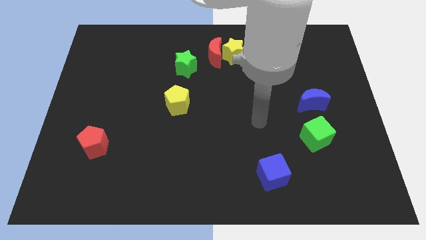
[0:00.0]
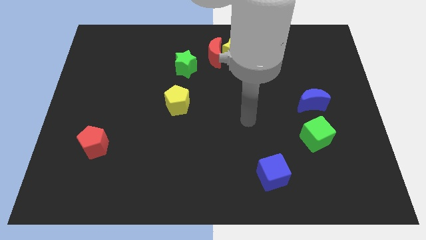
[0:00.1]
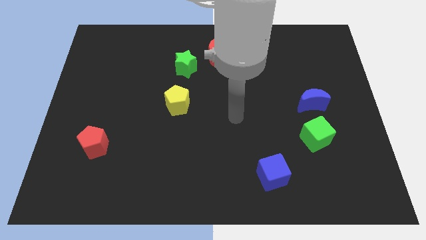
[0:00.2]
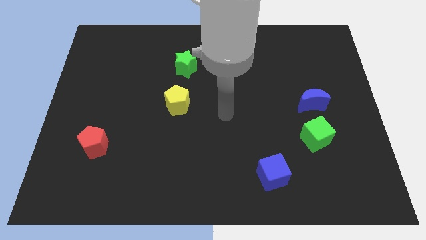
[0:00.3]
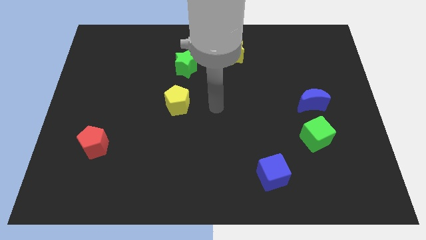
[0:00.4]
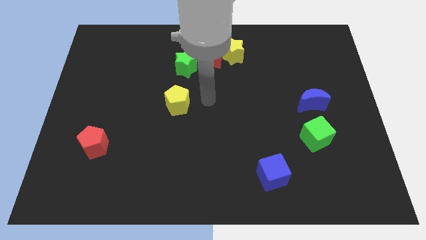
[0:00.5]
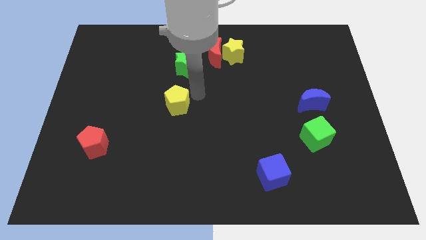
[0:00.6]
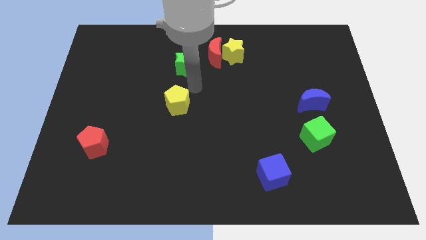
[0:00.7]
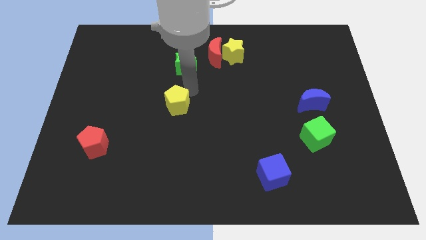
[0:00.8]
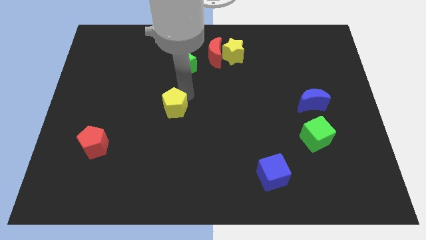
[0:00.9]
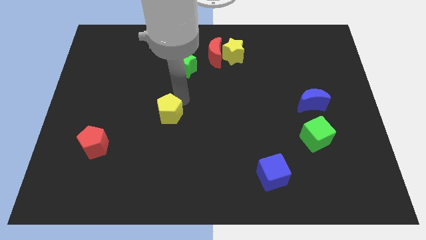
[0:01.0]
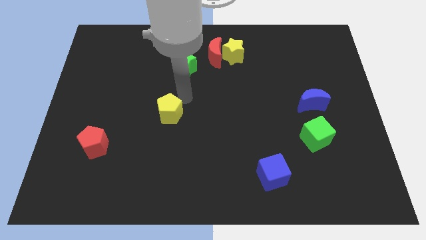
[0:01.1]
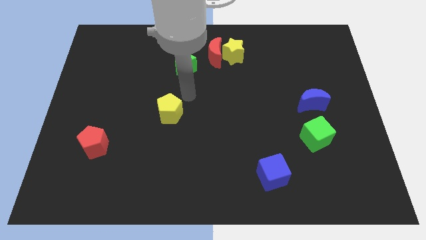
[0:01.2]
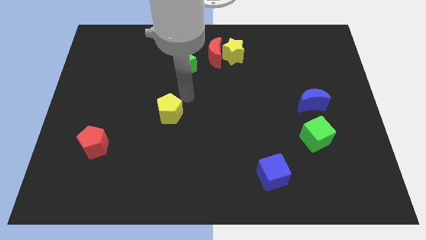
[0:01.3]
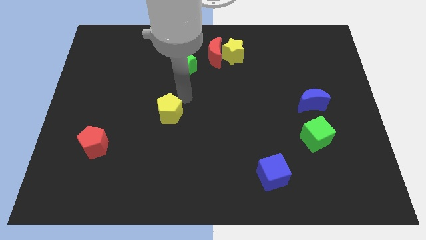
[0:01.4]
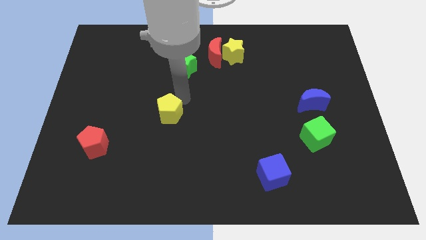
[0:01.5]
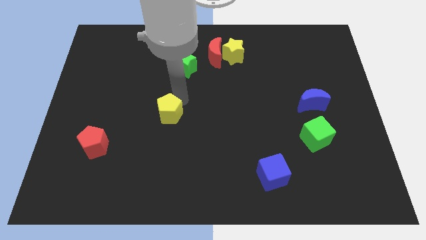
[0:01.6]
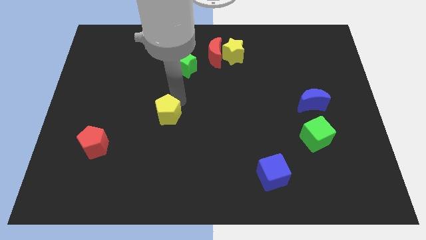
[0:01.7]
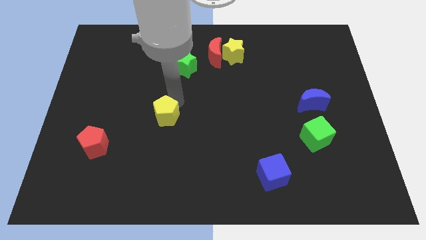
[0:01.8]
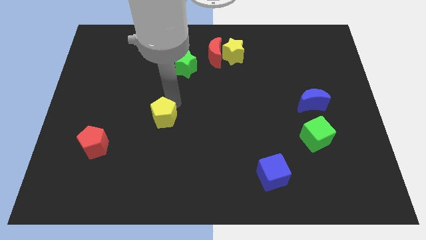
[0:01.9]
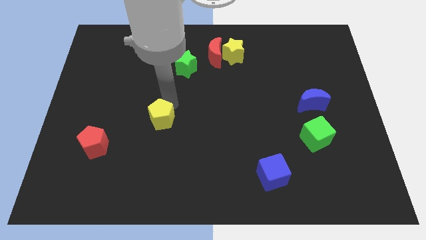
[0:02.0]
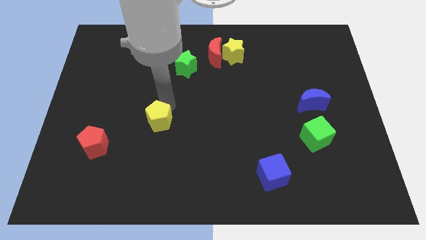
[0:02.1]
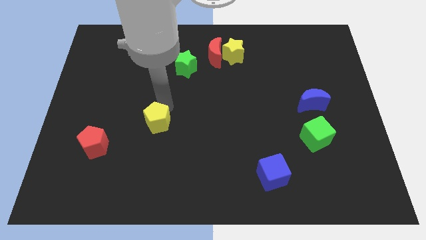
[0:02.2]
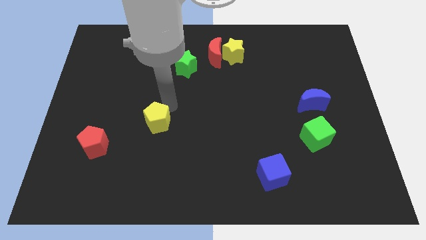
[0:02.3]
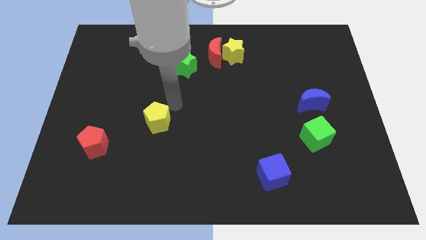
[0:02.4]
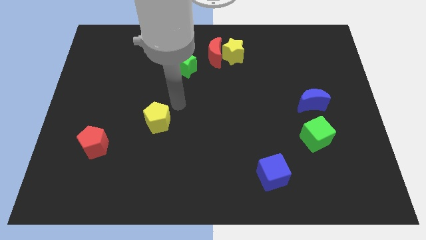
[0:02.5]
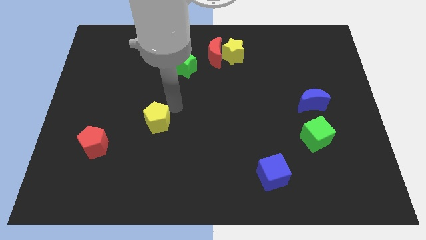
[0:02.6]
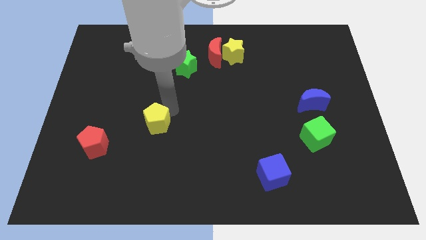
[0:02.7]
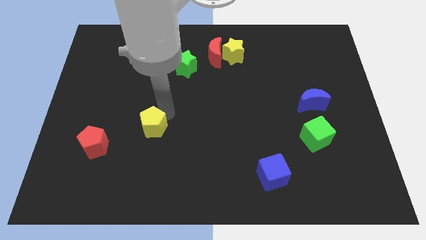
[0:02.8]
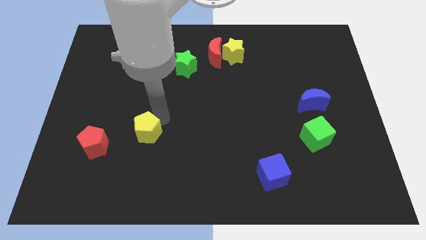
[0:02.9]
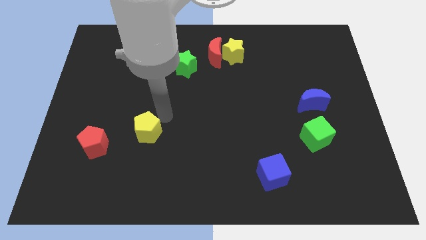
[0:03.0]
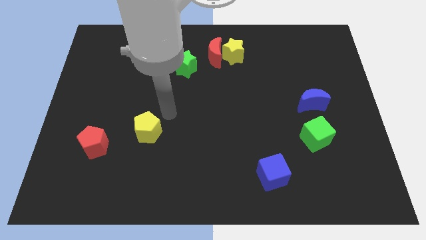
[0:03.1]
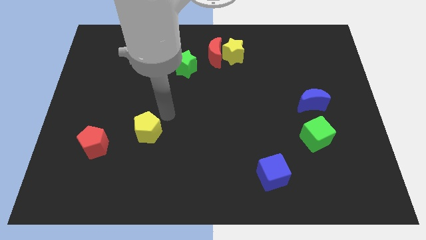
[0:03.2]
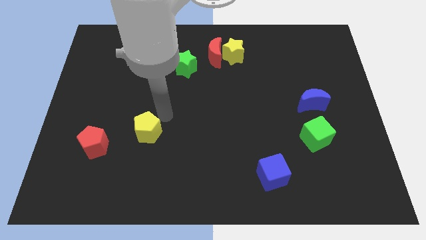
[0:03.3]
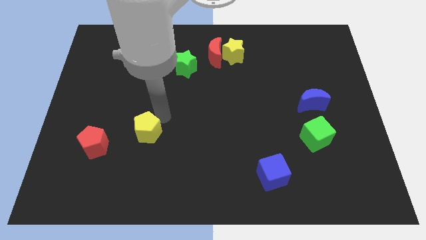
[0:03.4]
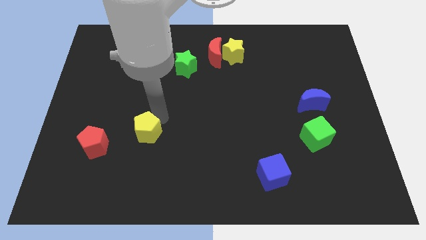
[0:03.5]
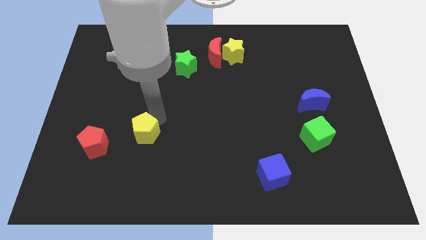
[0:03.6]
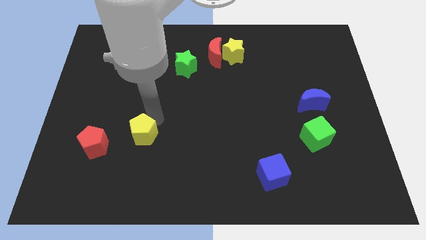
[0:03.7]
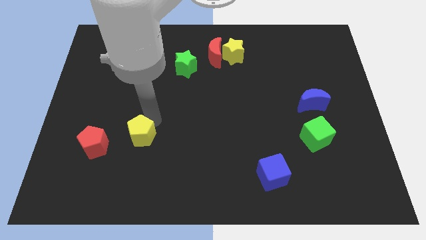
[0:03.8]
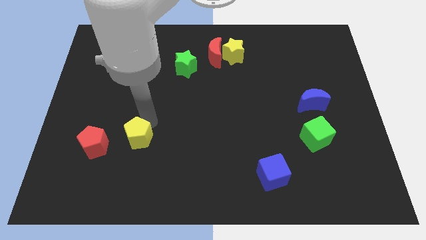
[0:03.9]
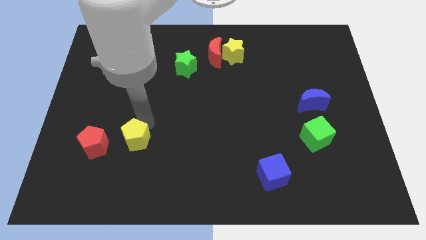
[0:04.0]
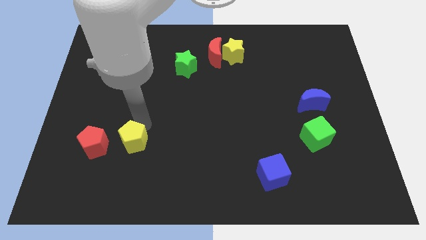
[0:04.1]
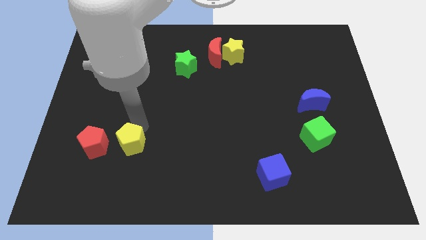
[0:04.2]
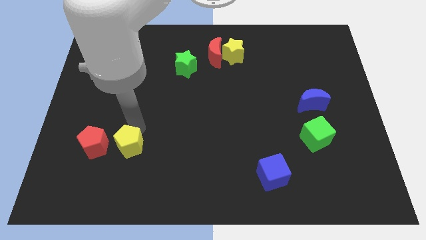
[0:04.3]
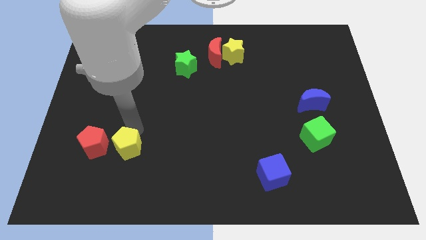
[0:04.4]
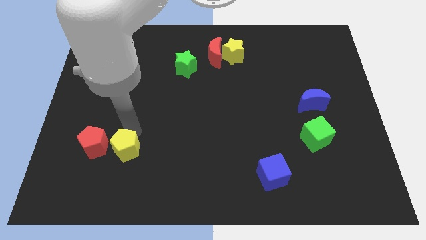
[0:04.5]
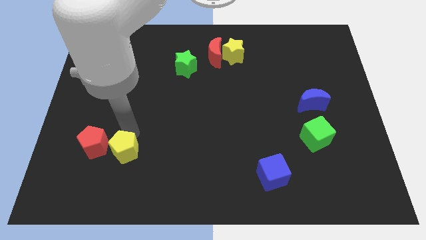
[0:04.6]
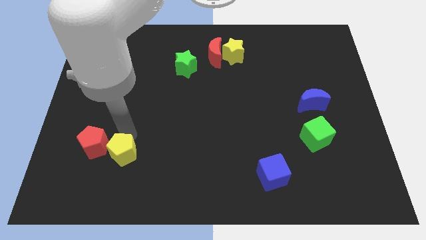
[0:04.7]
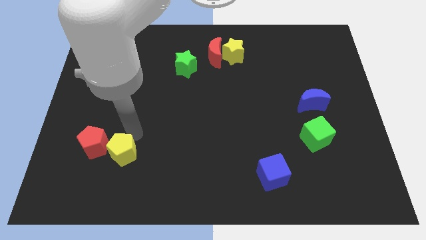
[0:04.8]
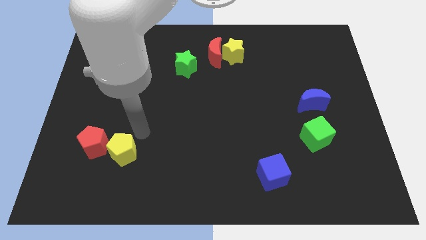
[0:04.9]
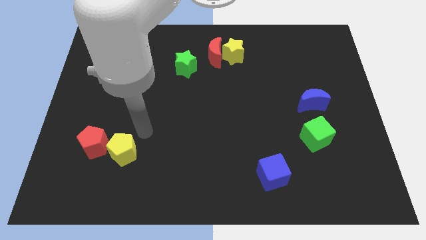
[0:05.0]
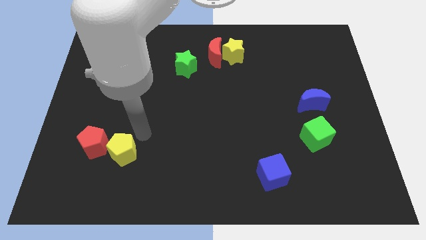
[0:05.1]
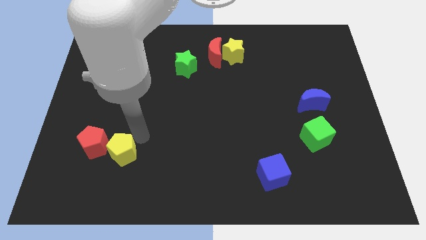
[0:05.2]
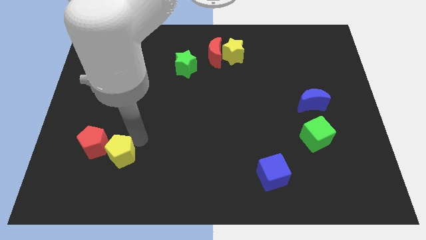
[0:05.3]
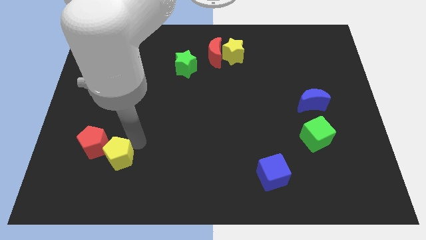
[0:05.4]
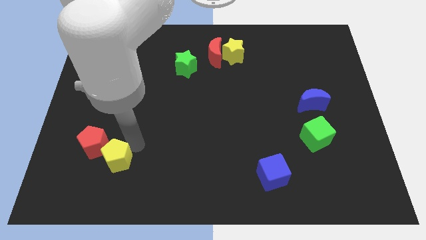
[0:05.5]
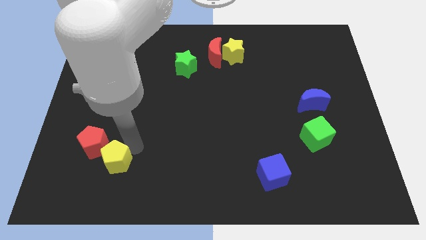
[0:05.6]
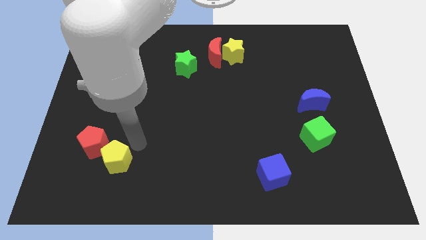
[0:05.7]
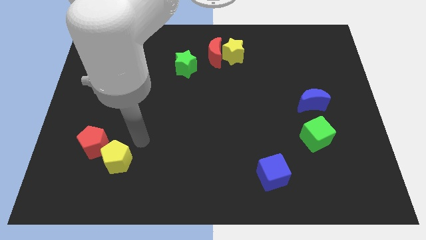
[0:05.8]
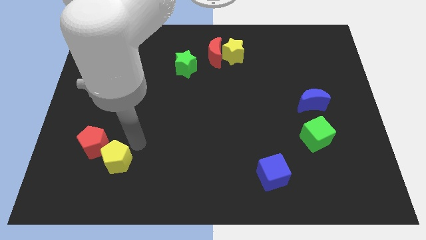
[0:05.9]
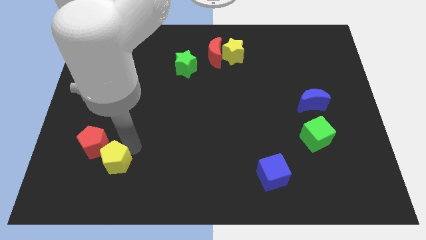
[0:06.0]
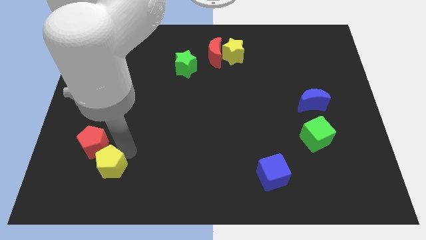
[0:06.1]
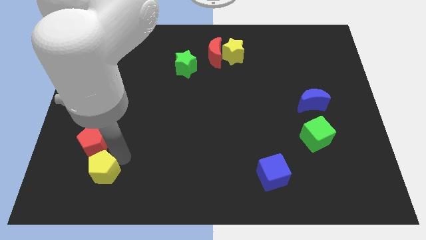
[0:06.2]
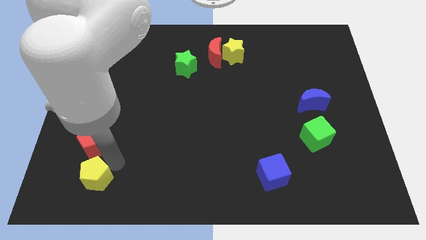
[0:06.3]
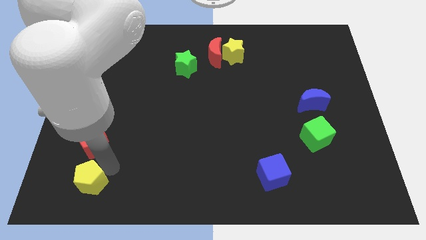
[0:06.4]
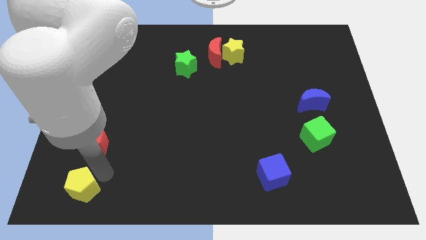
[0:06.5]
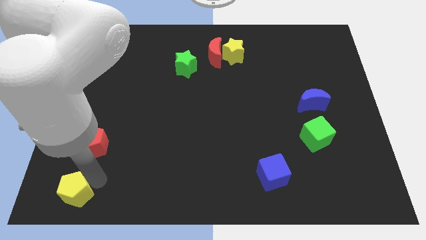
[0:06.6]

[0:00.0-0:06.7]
move the yellow pentagon to the bottom left of the board
